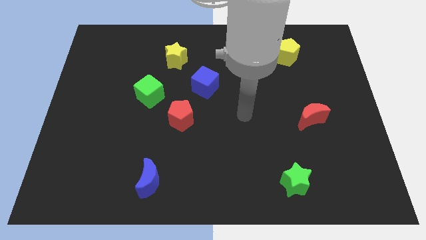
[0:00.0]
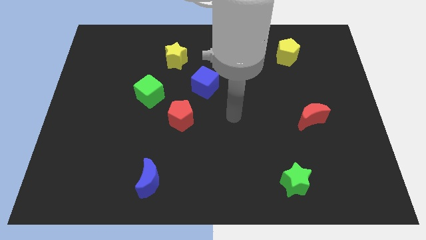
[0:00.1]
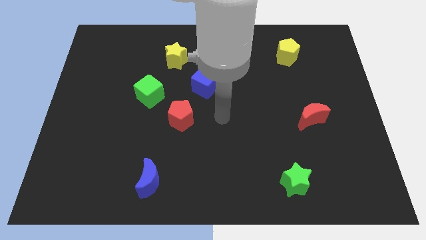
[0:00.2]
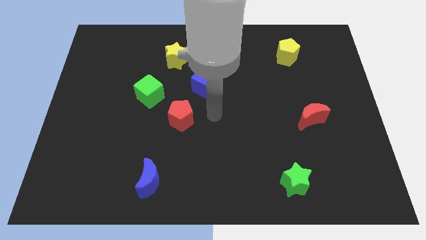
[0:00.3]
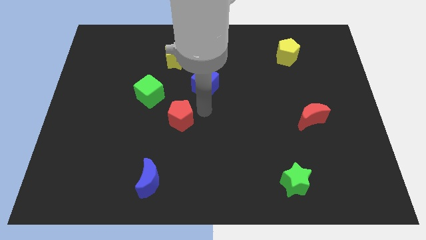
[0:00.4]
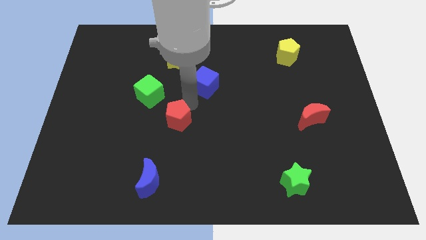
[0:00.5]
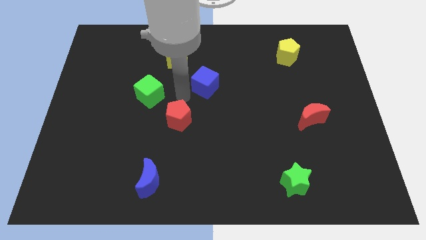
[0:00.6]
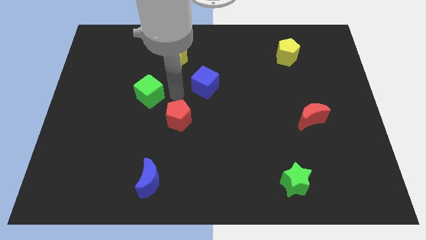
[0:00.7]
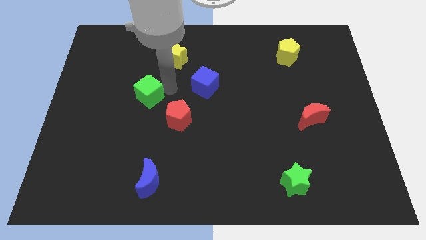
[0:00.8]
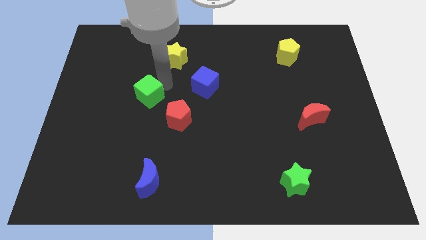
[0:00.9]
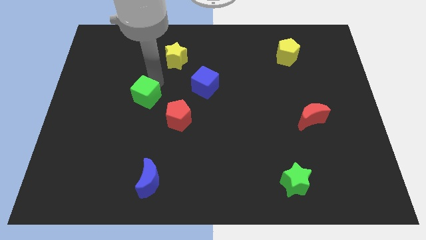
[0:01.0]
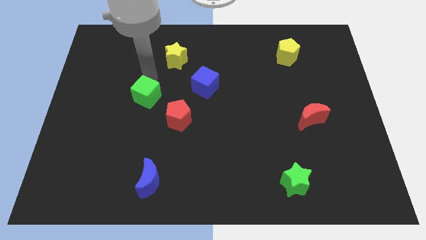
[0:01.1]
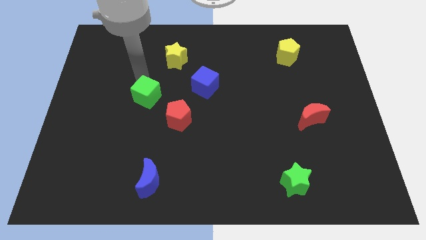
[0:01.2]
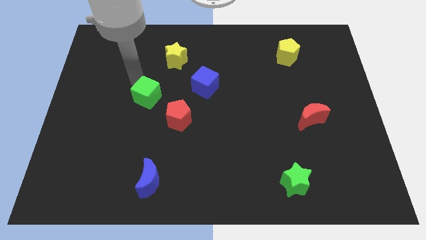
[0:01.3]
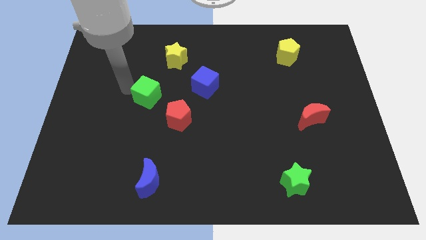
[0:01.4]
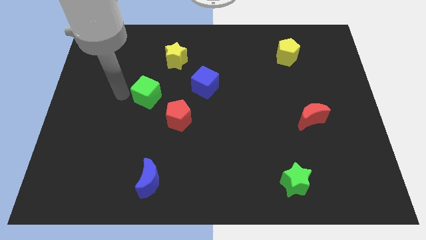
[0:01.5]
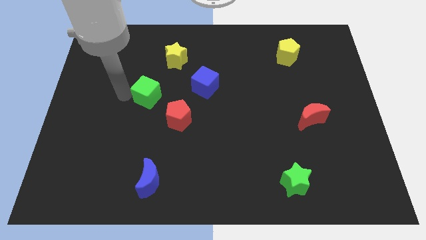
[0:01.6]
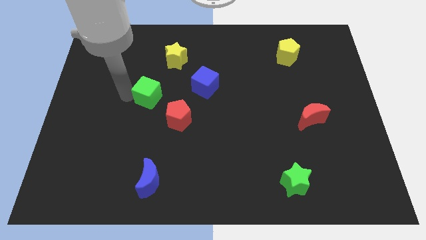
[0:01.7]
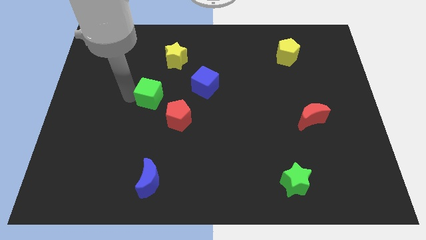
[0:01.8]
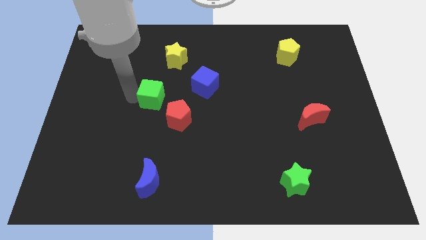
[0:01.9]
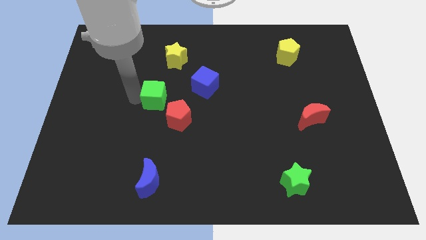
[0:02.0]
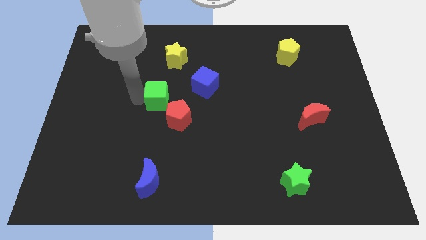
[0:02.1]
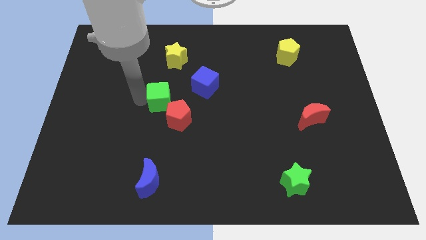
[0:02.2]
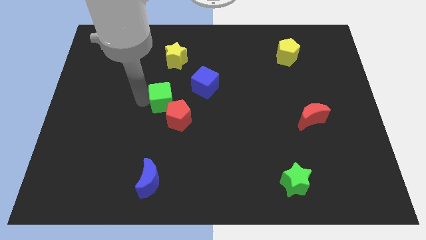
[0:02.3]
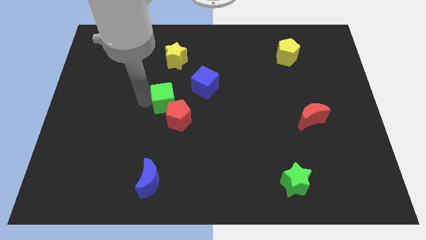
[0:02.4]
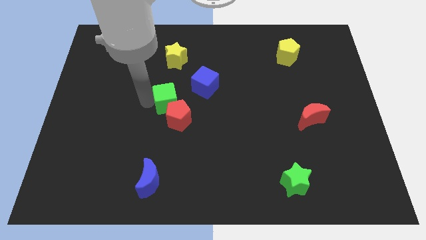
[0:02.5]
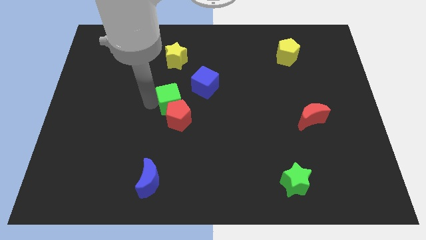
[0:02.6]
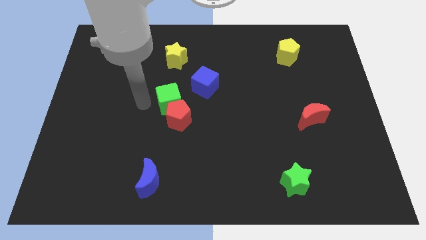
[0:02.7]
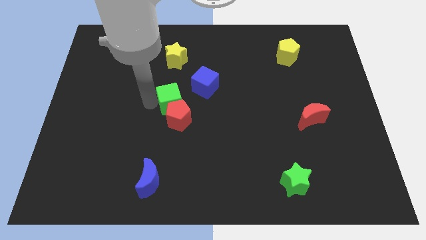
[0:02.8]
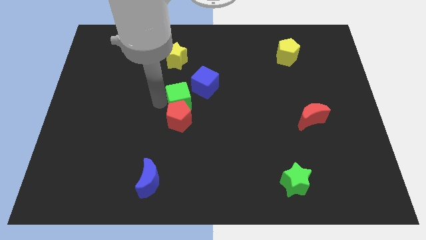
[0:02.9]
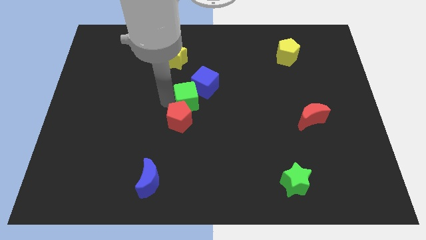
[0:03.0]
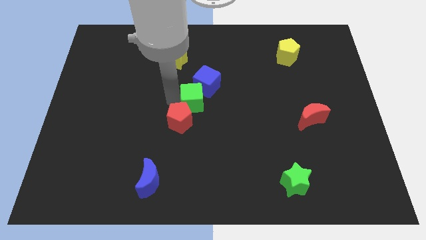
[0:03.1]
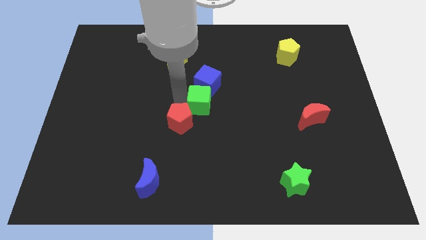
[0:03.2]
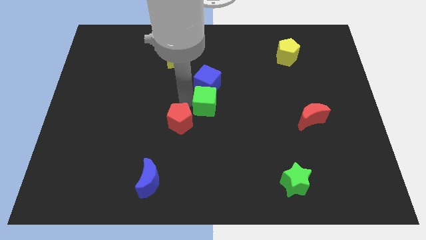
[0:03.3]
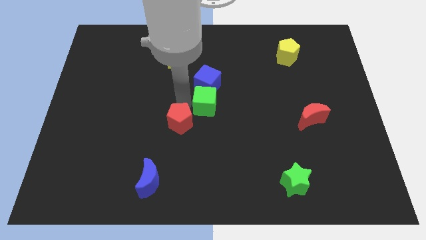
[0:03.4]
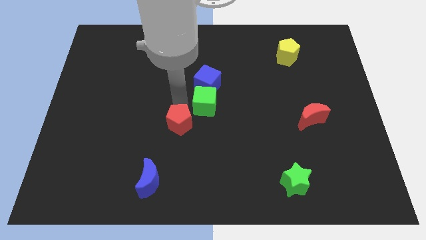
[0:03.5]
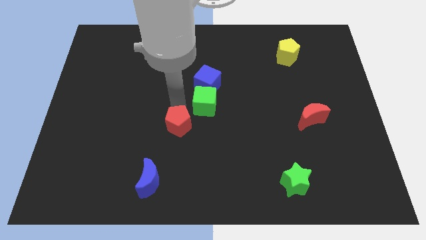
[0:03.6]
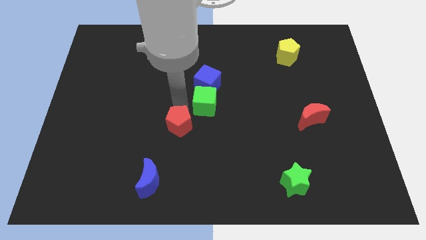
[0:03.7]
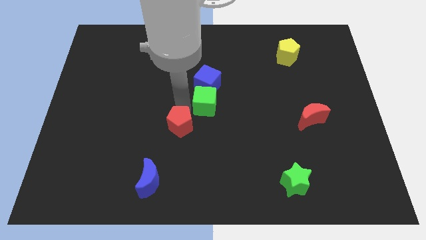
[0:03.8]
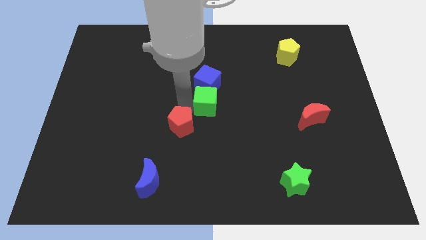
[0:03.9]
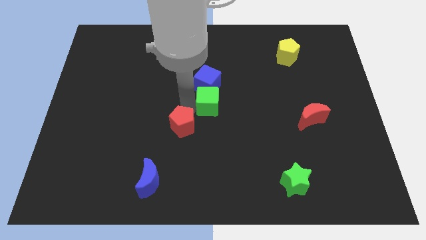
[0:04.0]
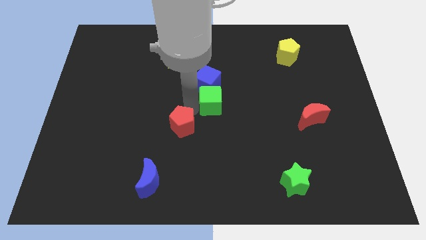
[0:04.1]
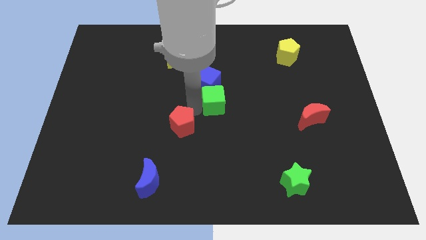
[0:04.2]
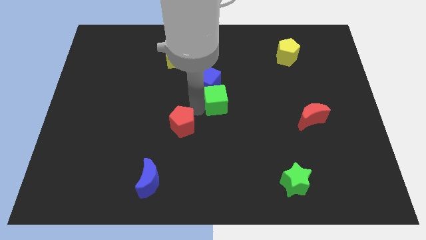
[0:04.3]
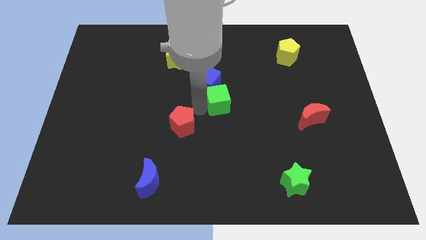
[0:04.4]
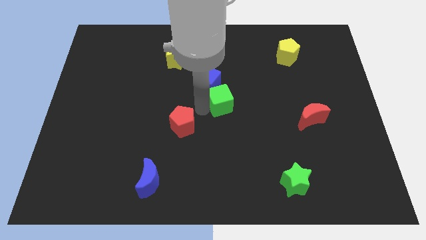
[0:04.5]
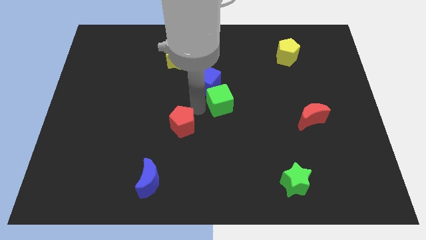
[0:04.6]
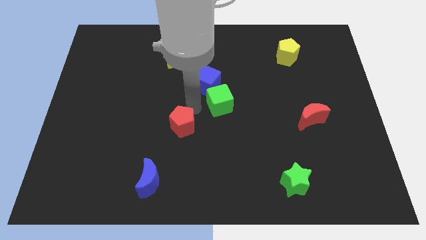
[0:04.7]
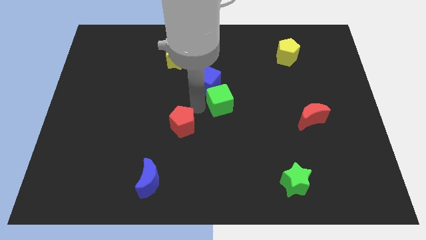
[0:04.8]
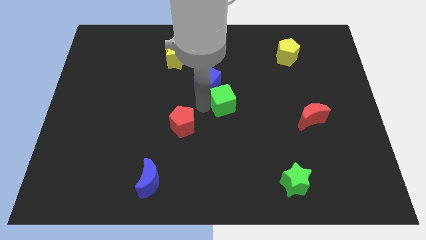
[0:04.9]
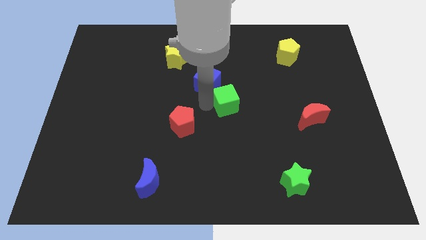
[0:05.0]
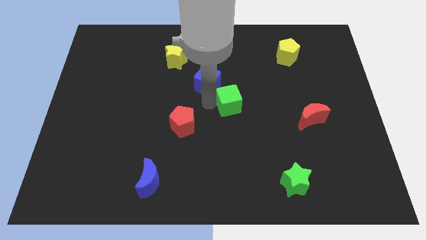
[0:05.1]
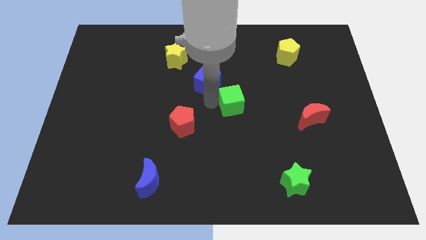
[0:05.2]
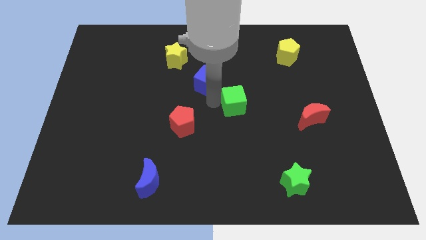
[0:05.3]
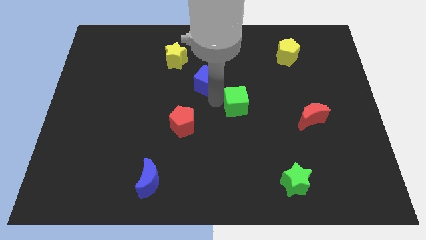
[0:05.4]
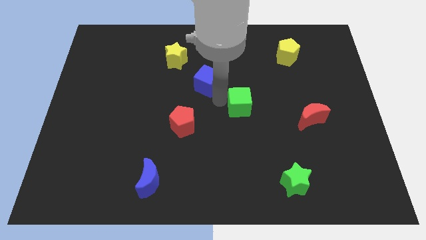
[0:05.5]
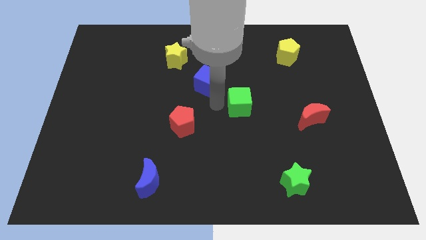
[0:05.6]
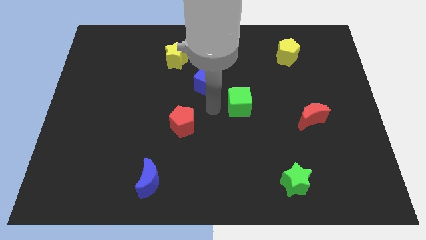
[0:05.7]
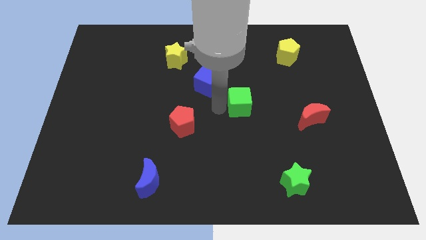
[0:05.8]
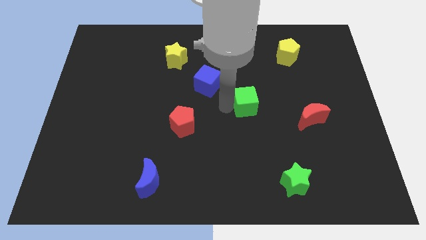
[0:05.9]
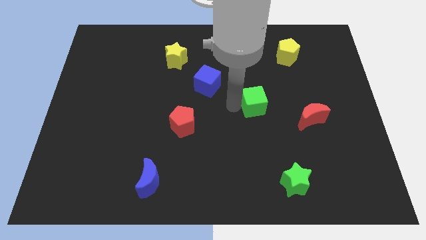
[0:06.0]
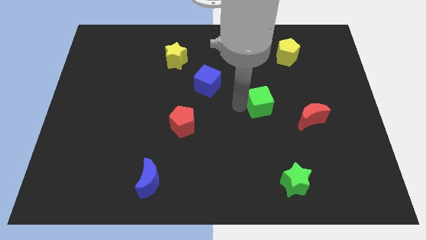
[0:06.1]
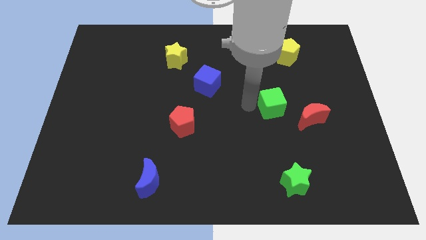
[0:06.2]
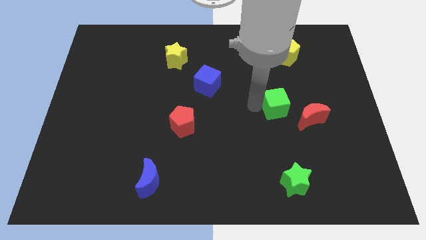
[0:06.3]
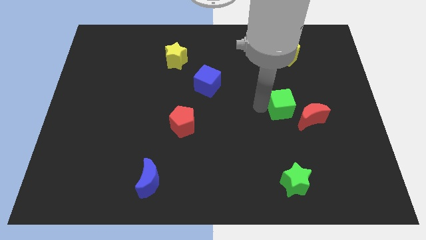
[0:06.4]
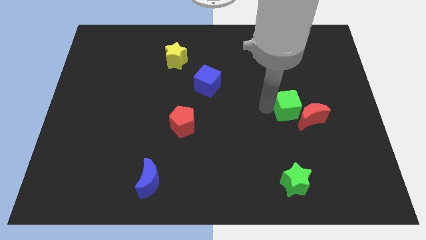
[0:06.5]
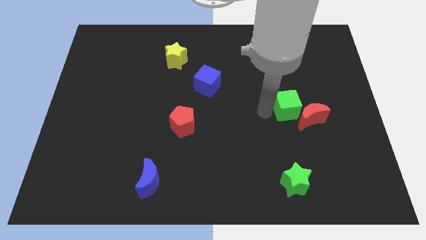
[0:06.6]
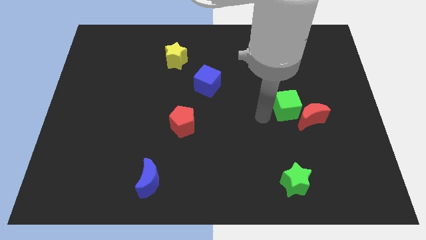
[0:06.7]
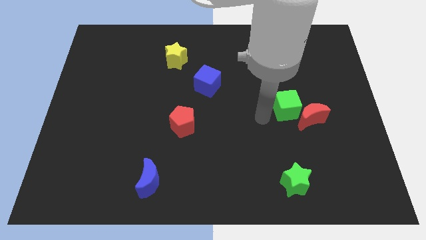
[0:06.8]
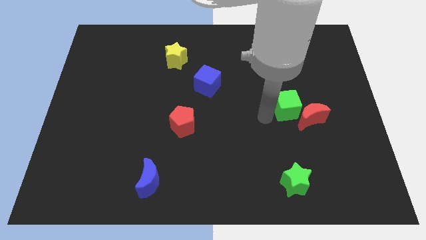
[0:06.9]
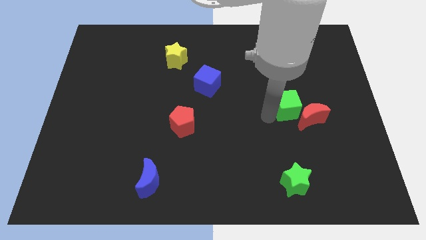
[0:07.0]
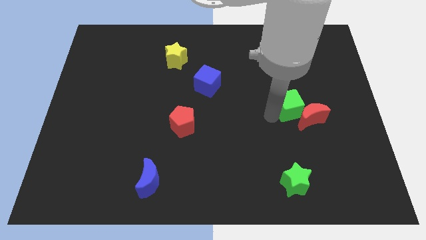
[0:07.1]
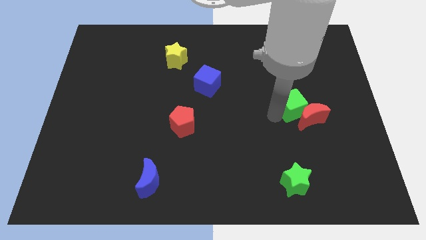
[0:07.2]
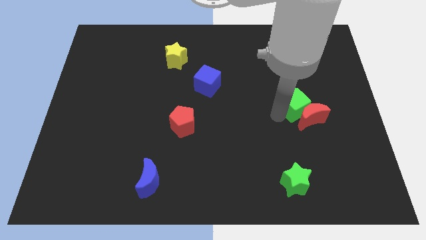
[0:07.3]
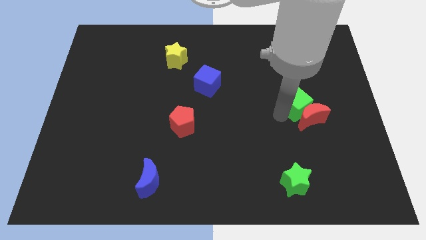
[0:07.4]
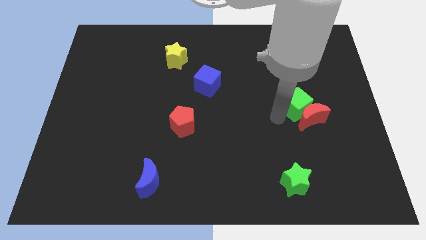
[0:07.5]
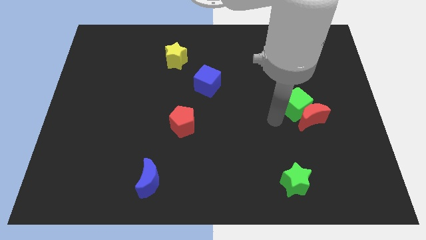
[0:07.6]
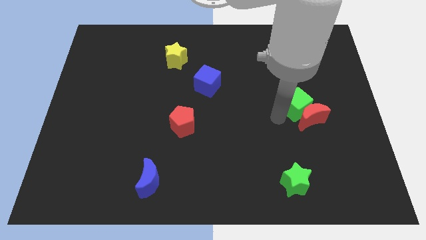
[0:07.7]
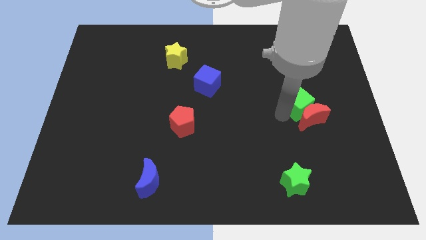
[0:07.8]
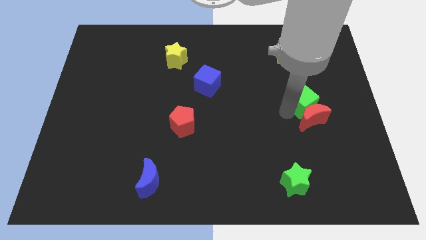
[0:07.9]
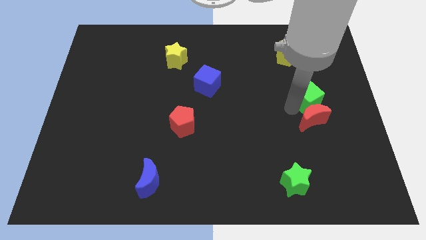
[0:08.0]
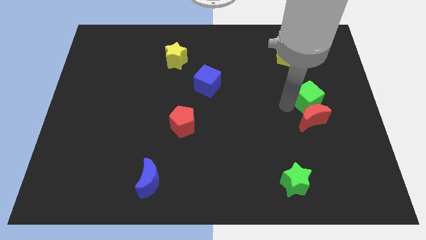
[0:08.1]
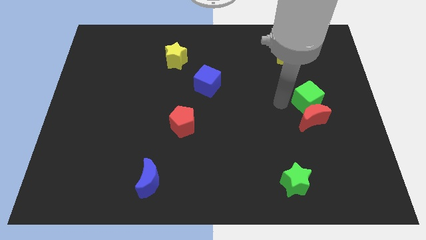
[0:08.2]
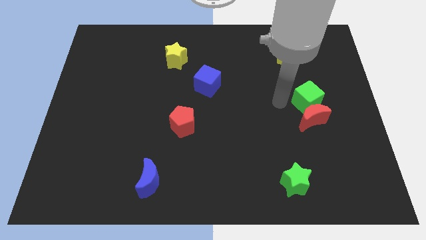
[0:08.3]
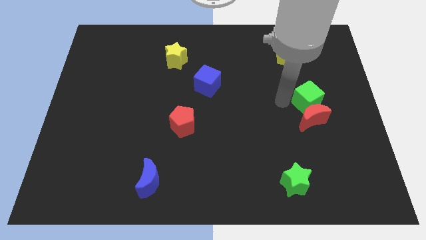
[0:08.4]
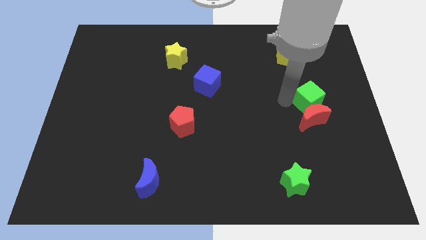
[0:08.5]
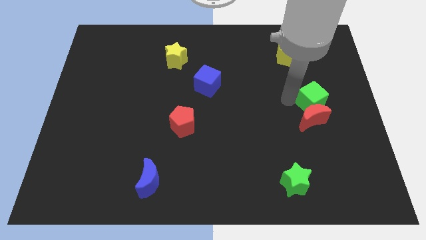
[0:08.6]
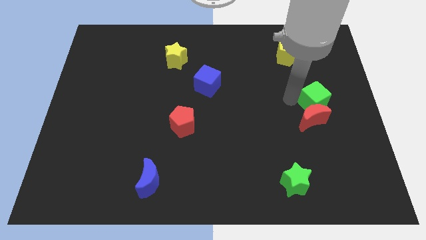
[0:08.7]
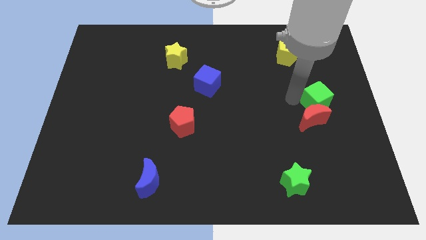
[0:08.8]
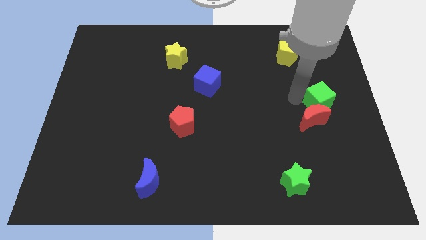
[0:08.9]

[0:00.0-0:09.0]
move the green cube to the right side of the board
